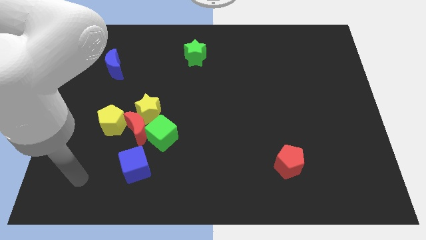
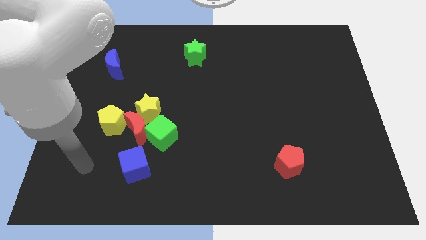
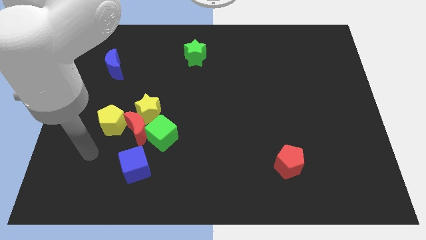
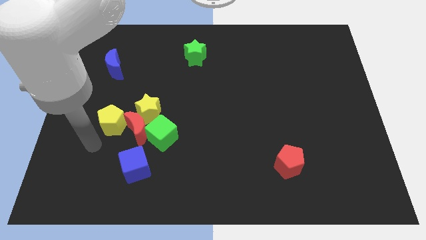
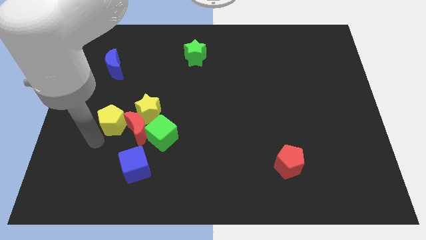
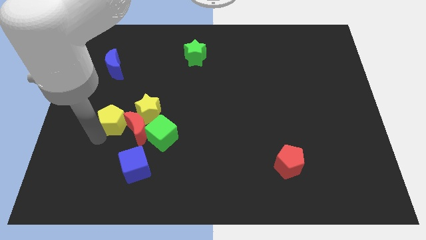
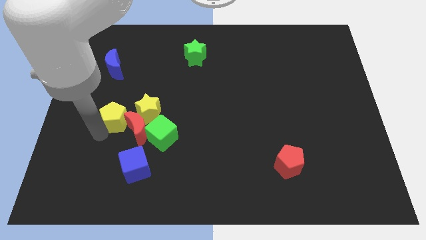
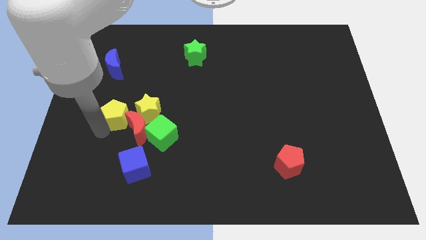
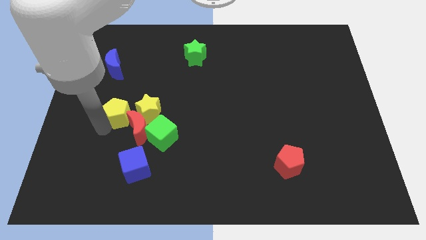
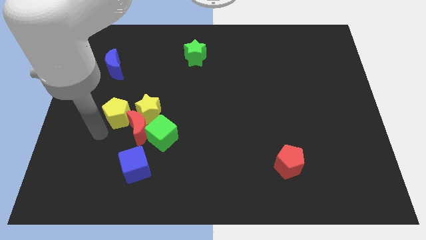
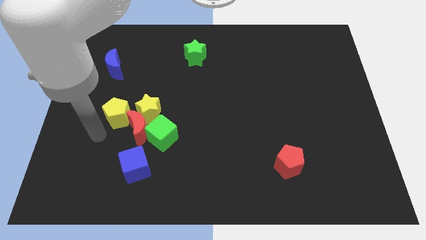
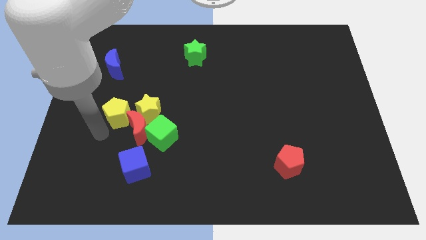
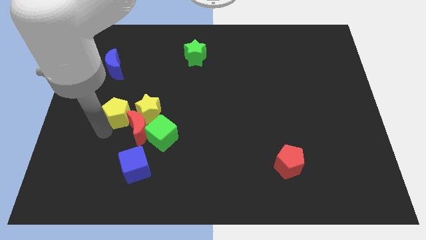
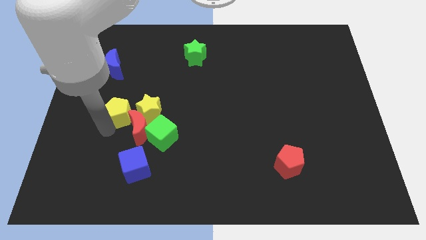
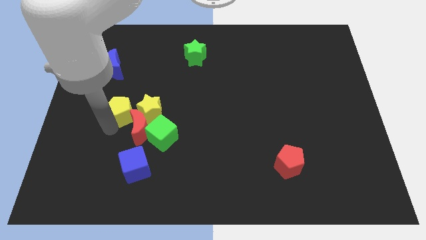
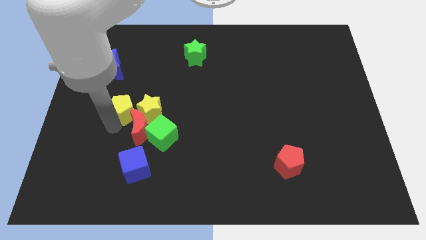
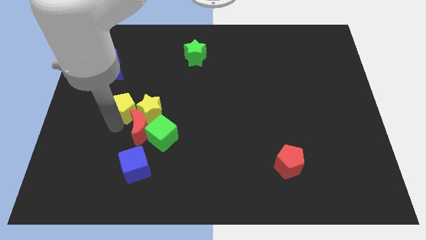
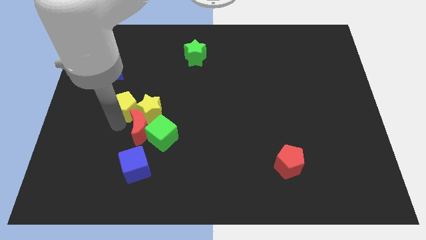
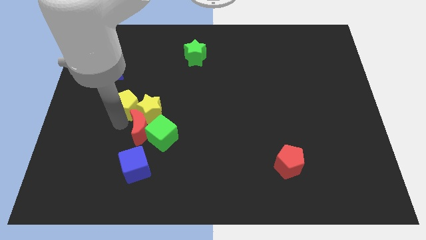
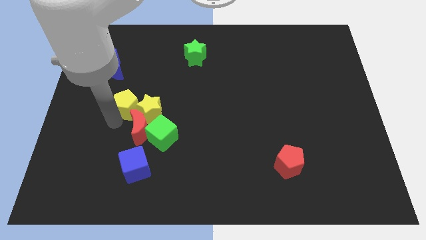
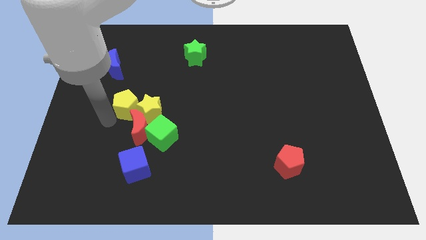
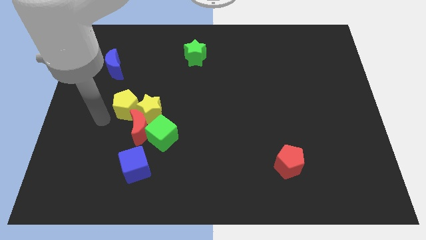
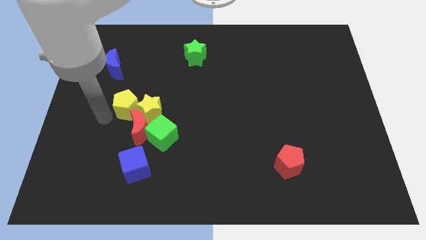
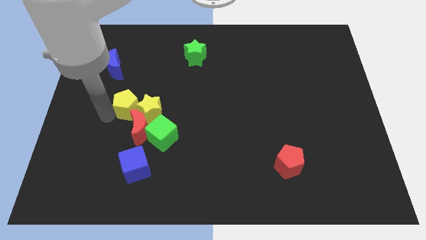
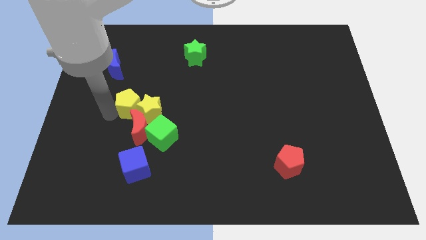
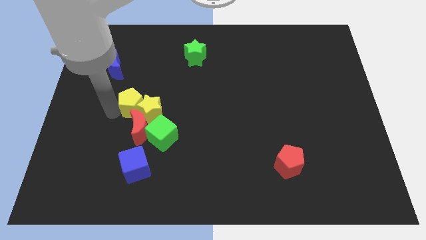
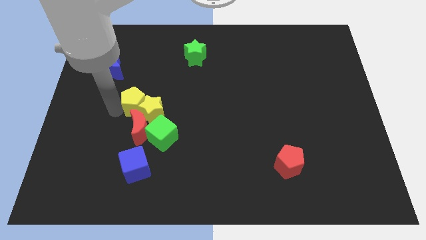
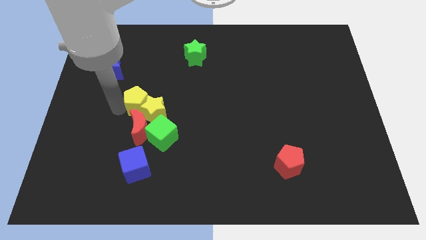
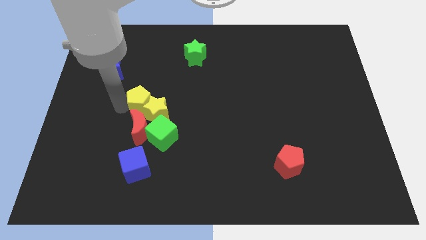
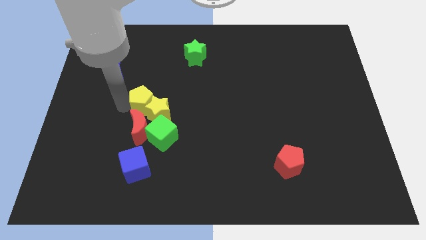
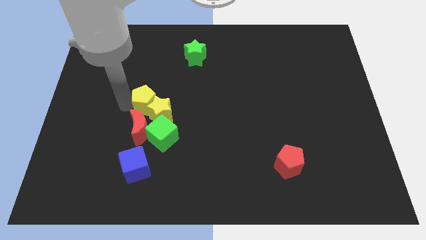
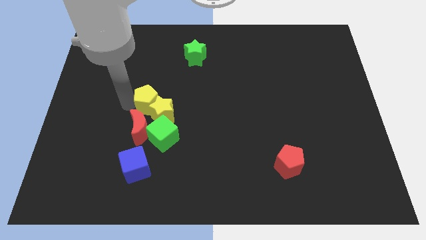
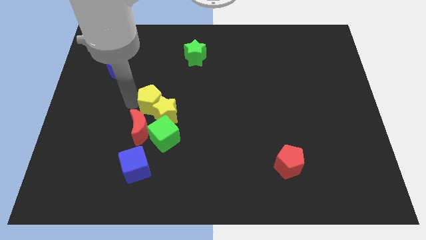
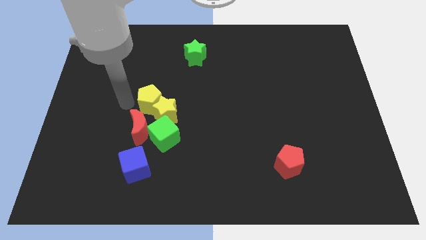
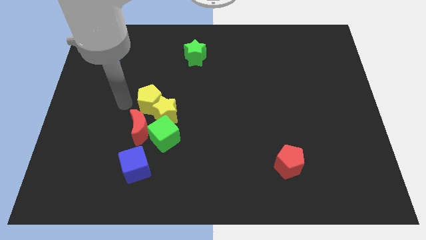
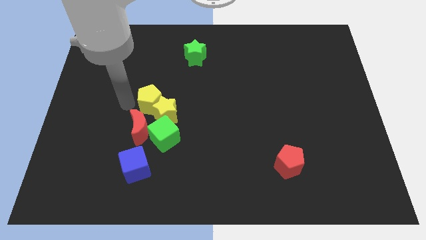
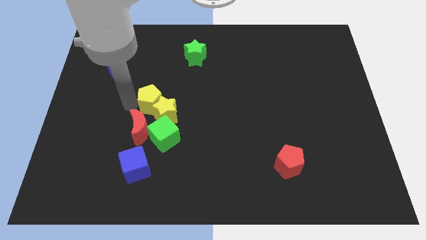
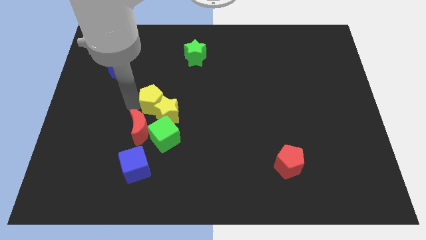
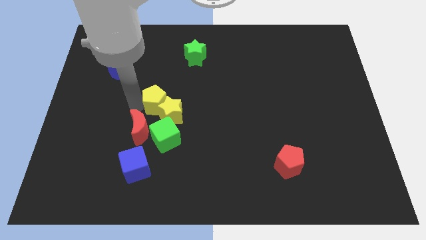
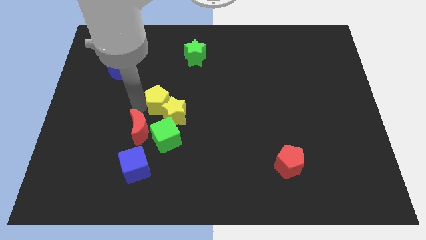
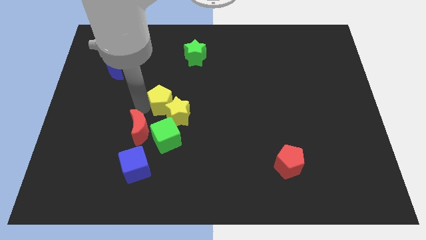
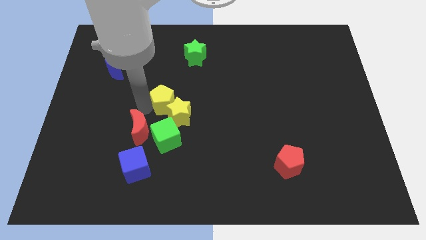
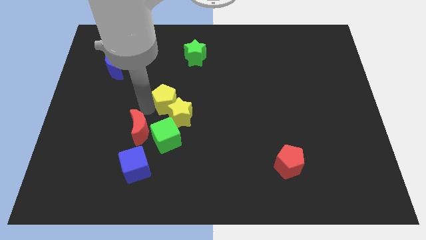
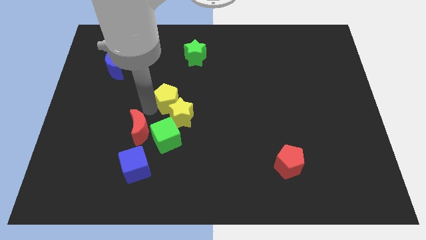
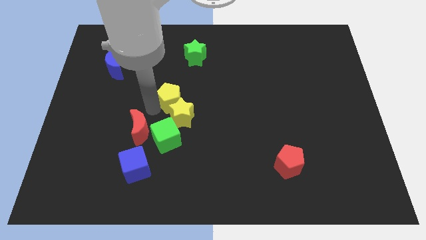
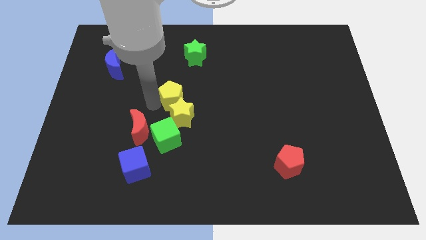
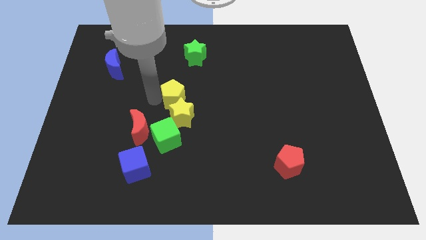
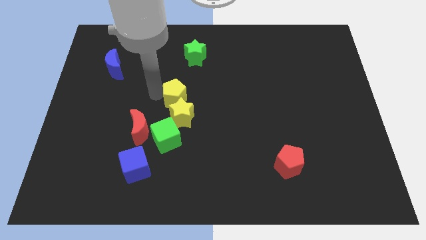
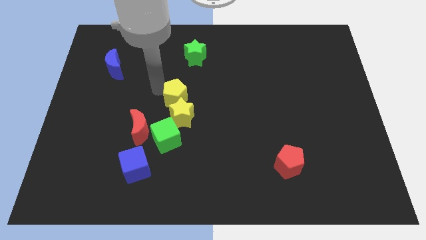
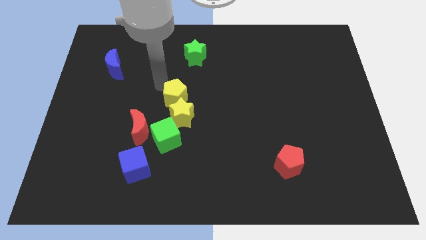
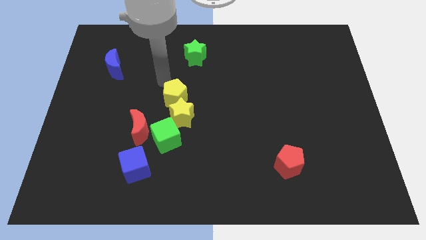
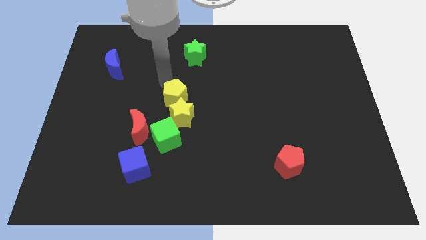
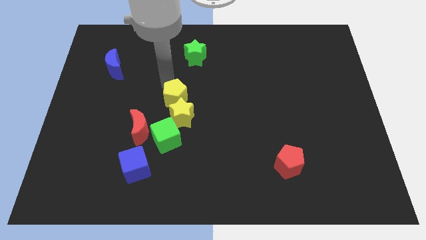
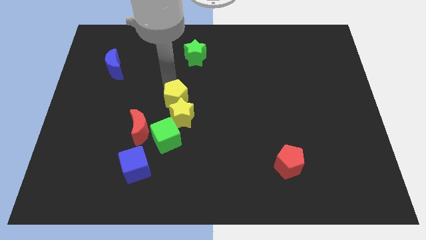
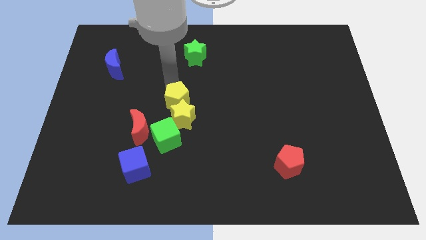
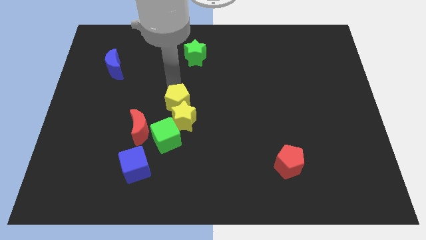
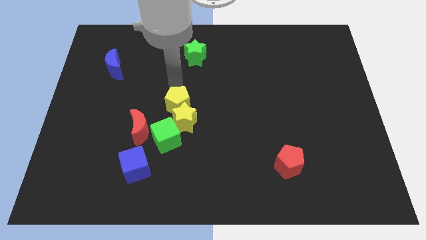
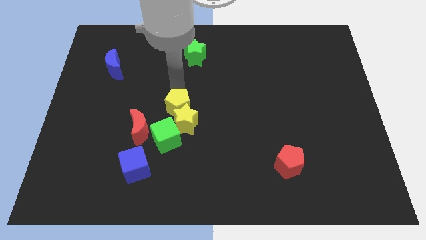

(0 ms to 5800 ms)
put the yellow pentagon diagonally up and to the right of the green cube

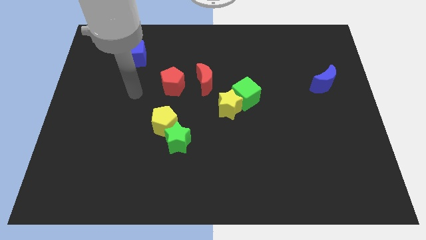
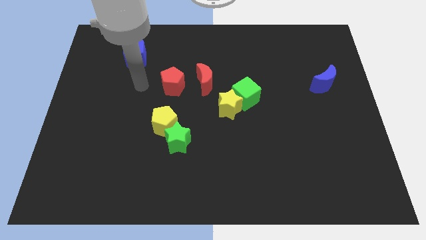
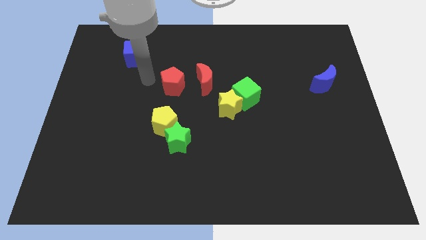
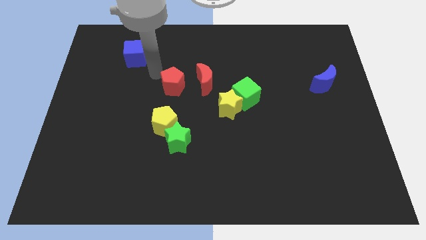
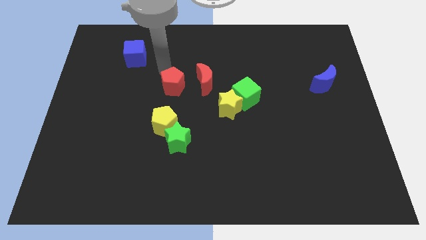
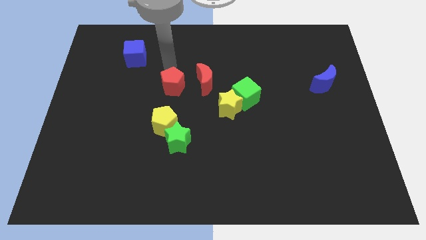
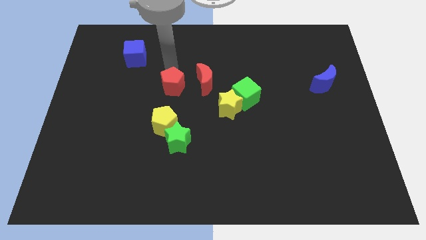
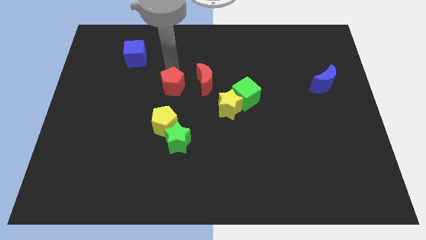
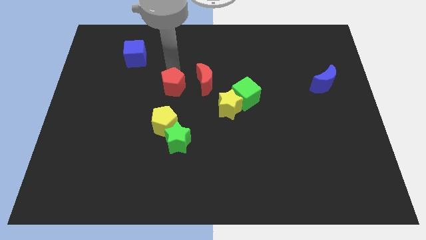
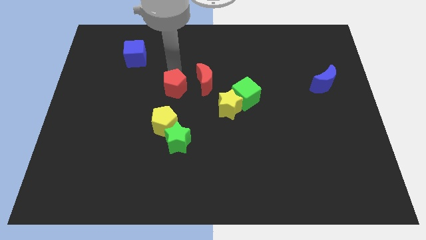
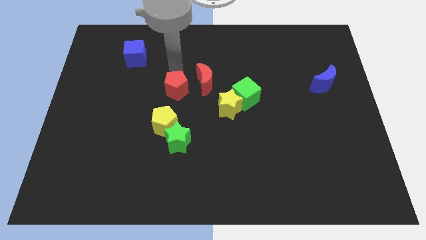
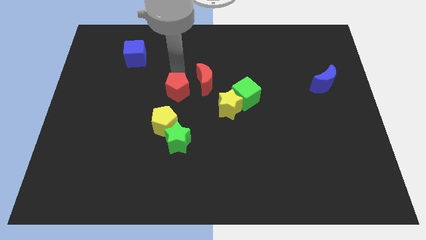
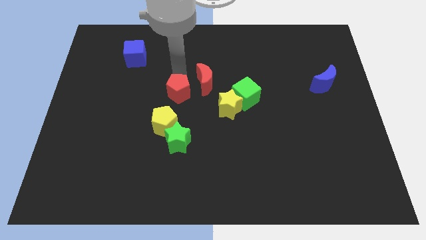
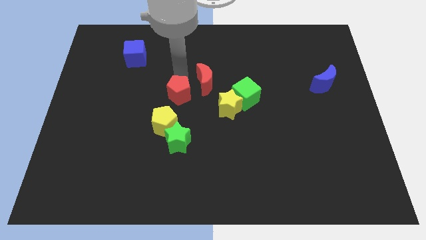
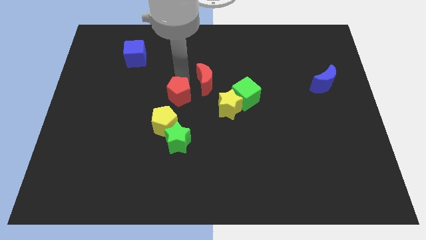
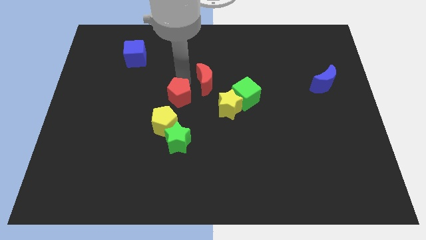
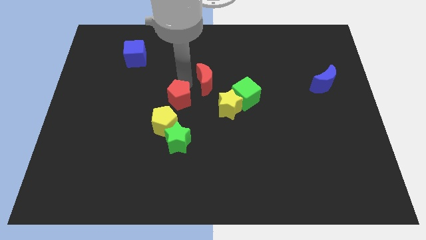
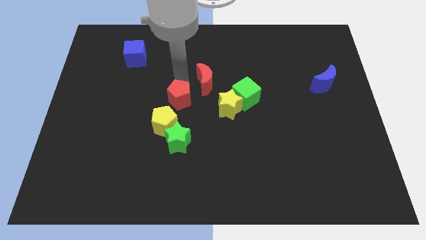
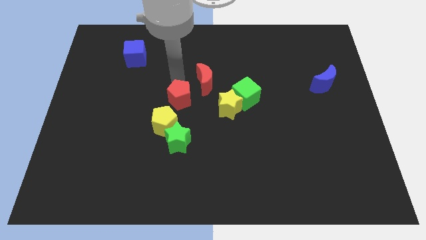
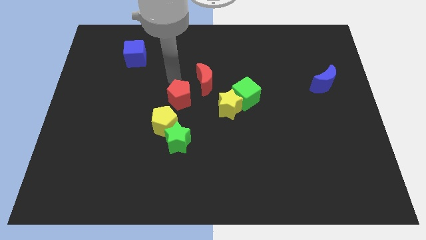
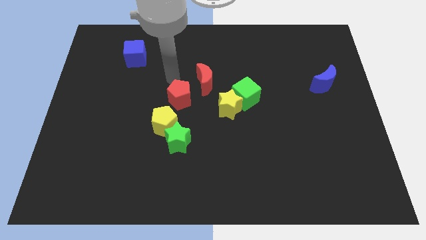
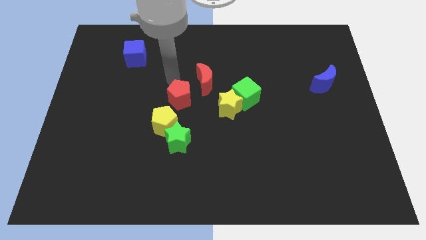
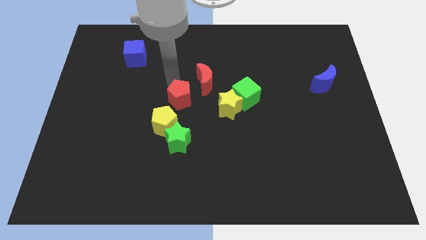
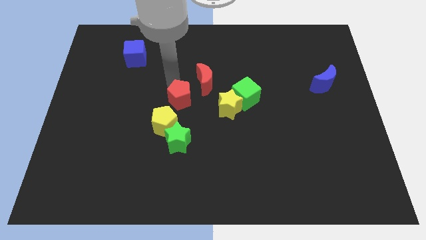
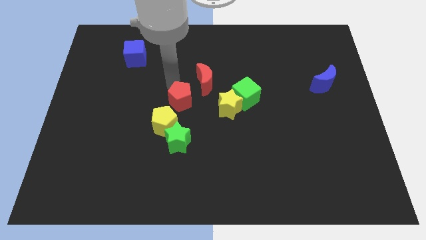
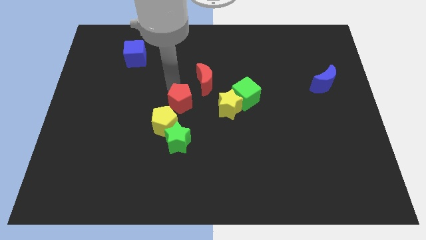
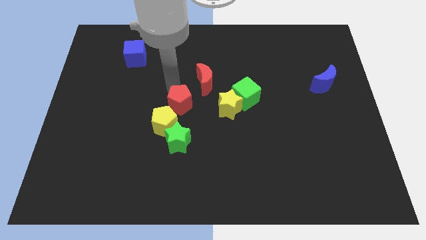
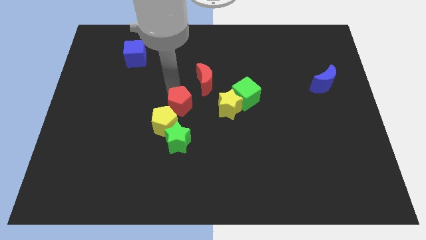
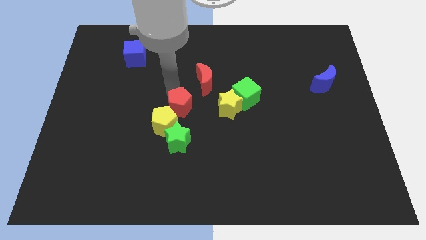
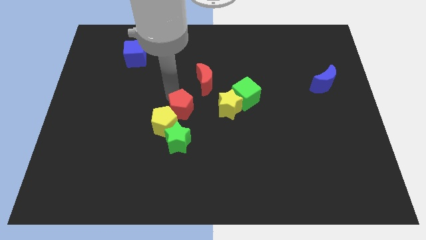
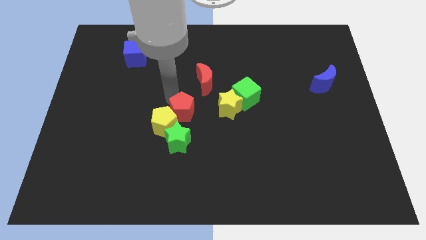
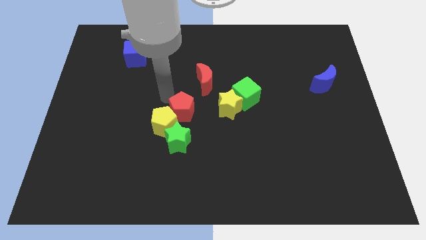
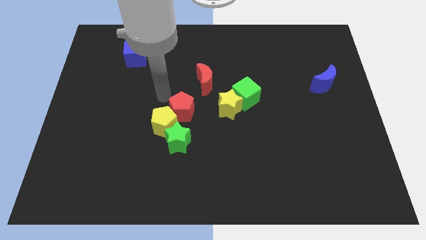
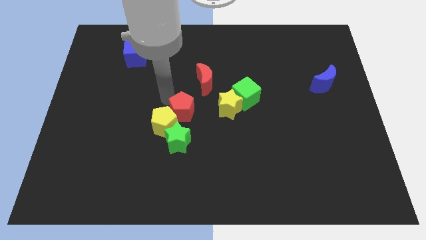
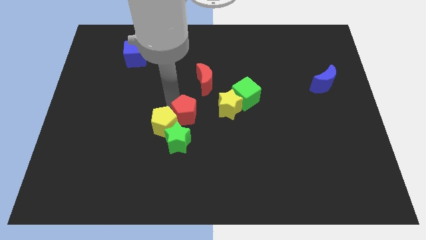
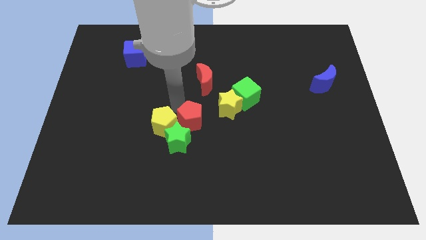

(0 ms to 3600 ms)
put the red pentagon diagonally down and to the left of the yellow star
